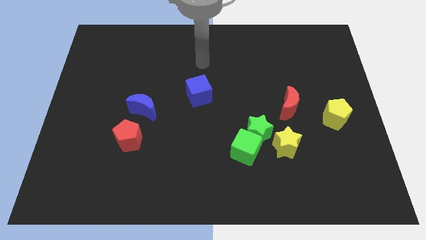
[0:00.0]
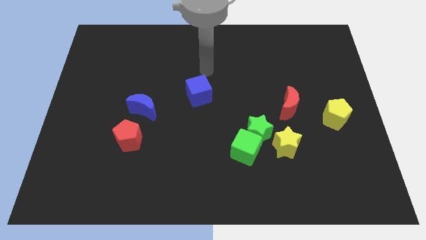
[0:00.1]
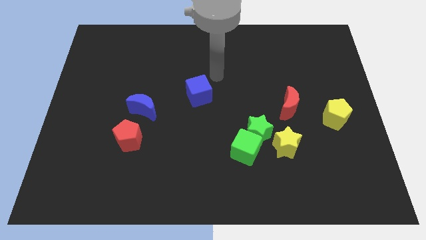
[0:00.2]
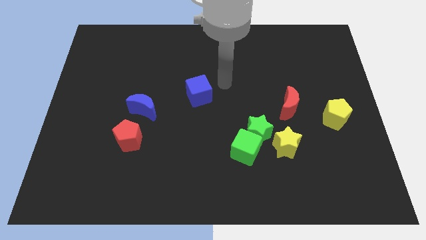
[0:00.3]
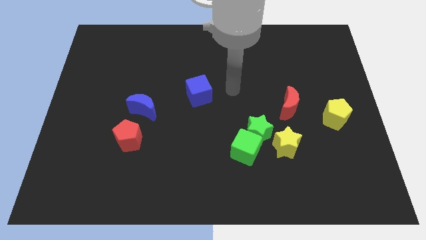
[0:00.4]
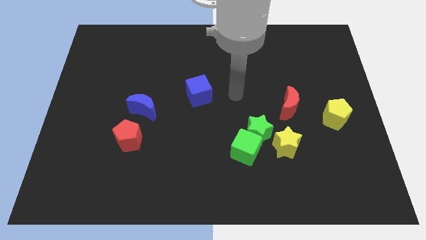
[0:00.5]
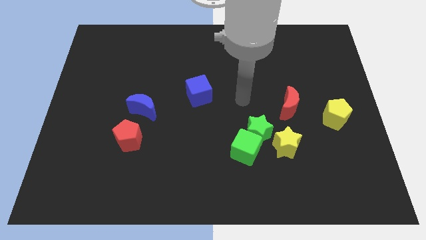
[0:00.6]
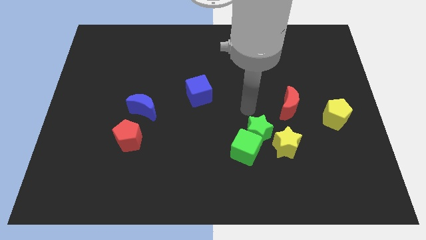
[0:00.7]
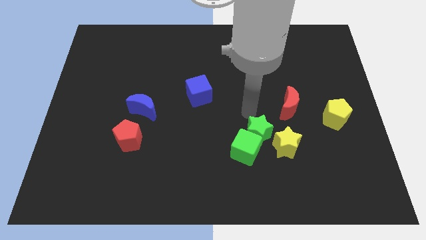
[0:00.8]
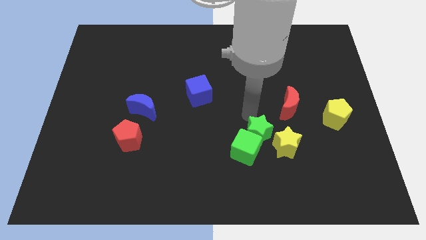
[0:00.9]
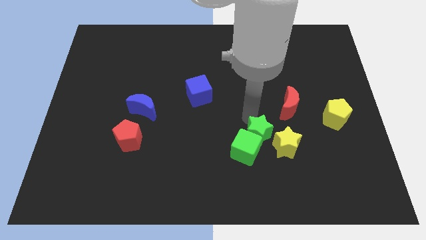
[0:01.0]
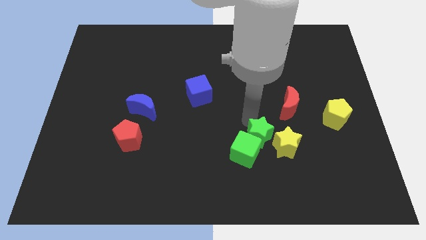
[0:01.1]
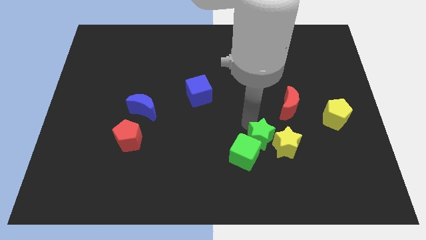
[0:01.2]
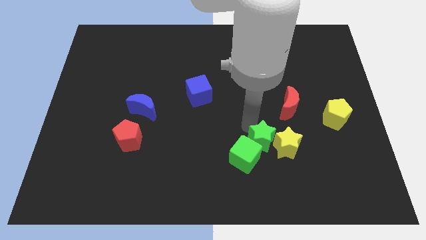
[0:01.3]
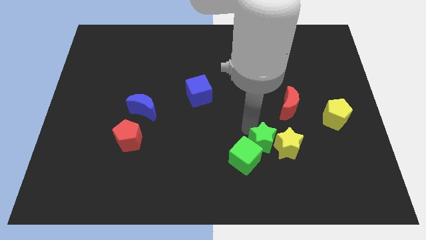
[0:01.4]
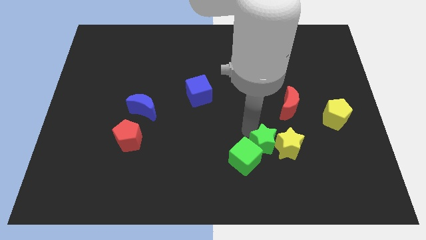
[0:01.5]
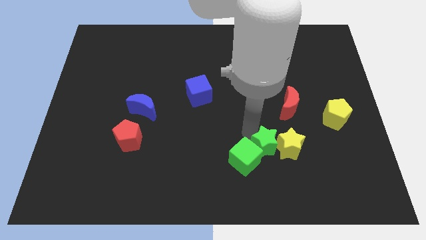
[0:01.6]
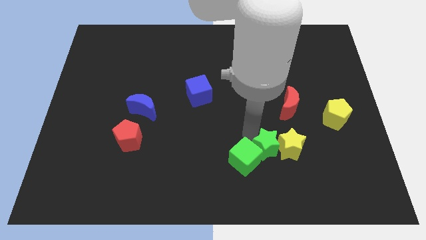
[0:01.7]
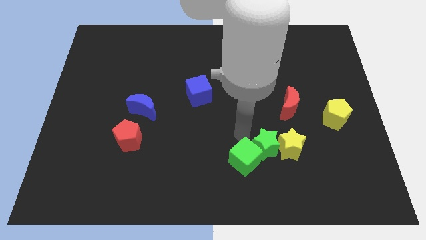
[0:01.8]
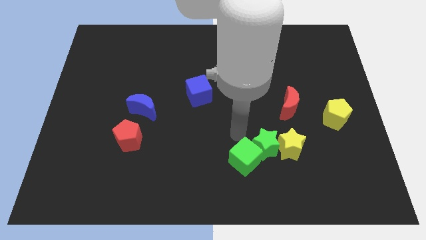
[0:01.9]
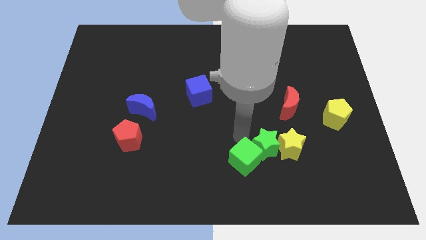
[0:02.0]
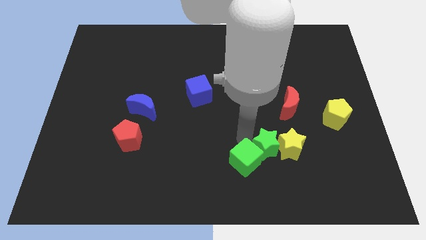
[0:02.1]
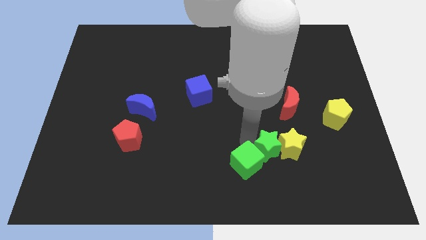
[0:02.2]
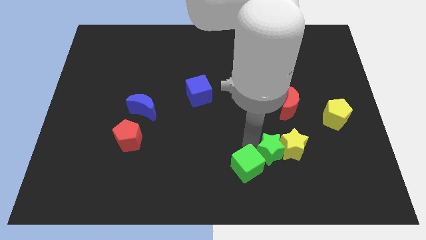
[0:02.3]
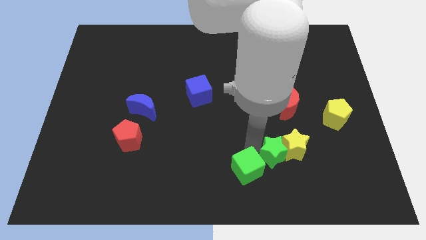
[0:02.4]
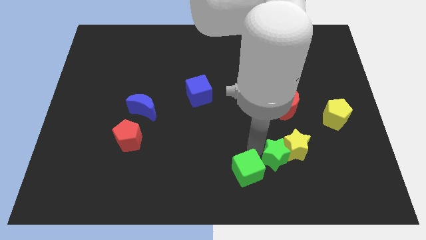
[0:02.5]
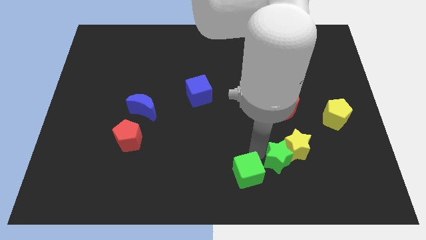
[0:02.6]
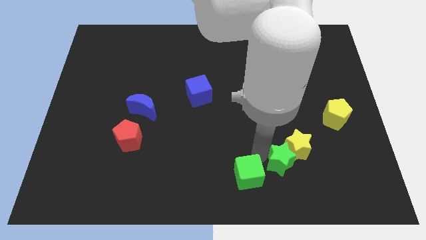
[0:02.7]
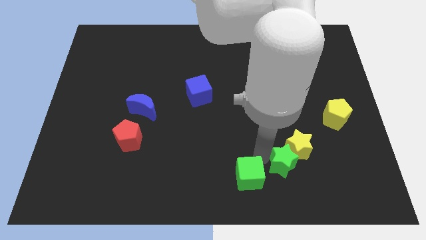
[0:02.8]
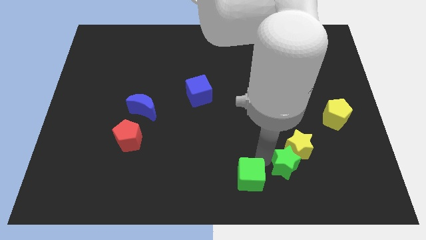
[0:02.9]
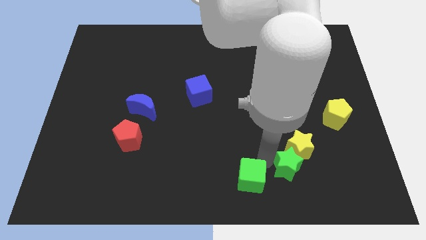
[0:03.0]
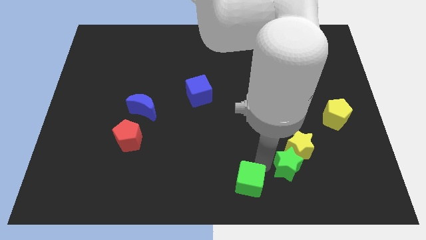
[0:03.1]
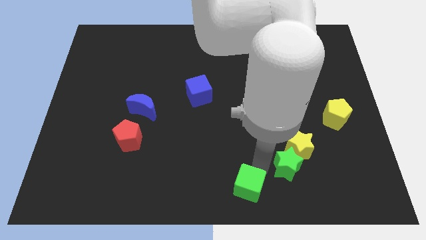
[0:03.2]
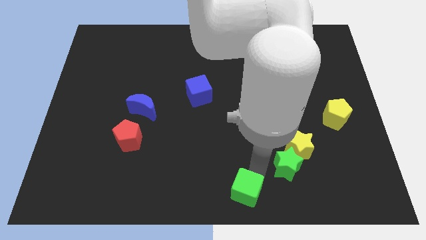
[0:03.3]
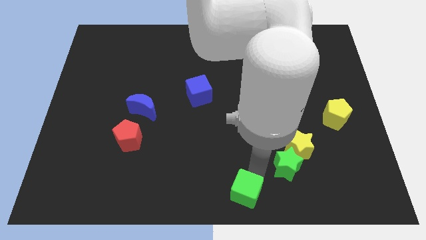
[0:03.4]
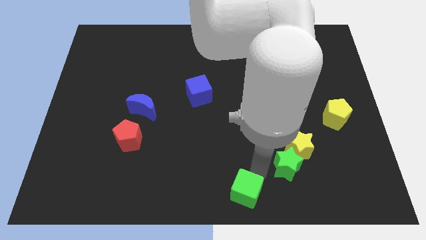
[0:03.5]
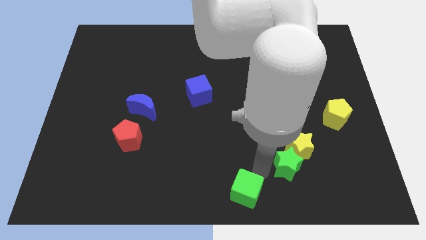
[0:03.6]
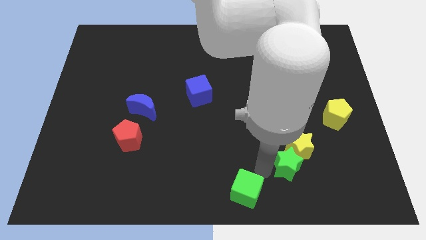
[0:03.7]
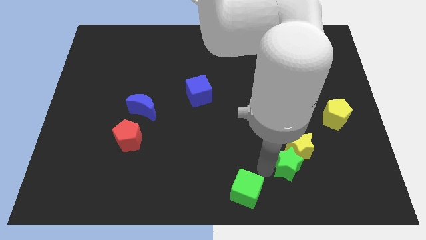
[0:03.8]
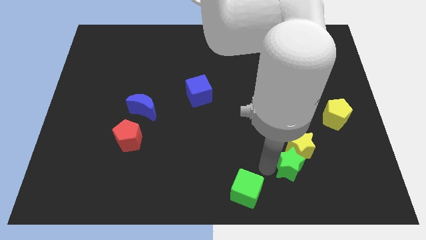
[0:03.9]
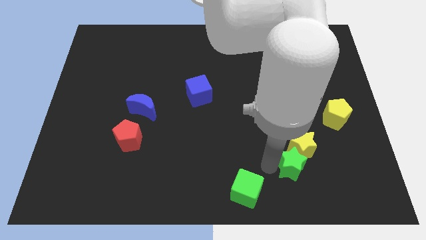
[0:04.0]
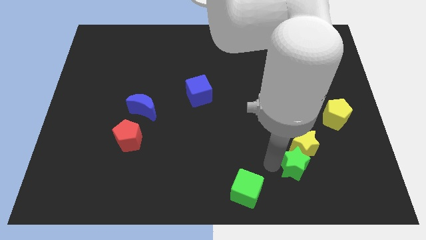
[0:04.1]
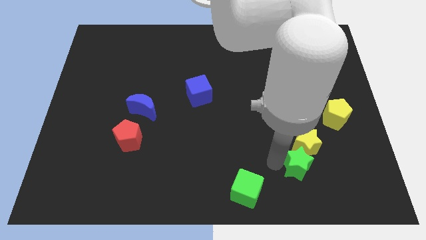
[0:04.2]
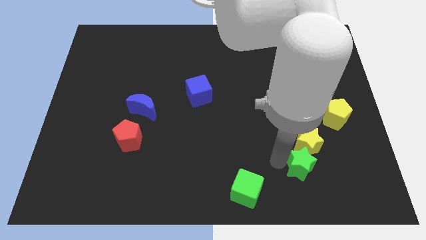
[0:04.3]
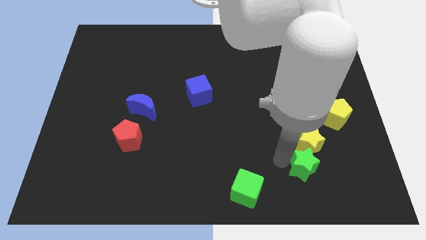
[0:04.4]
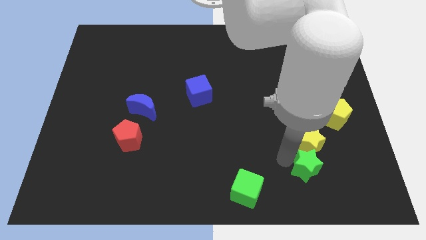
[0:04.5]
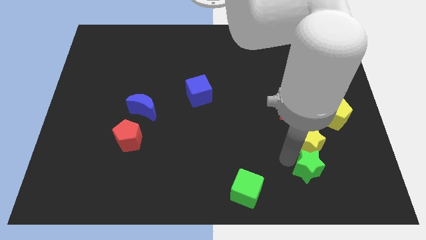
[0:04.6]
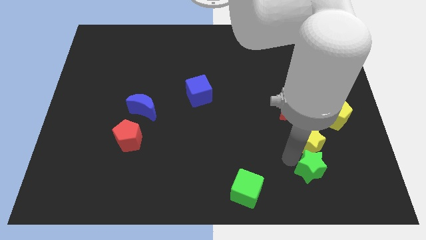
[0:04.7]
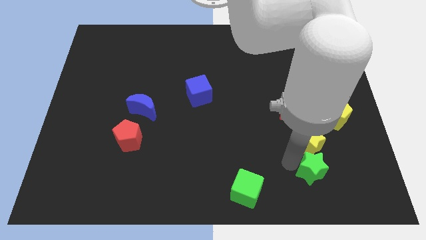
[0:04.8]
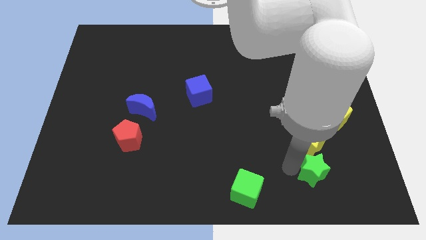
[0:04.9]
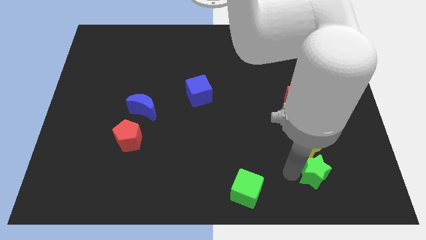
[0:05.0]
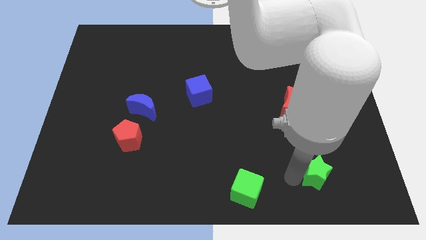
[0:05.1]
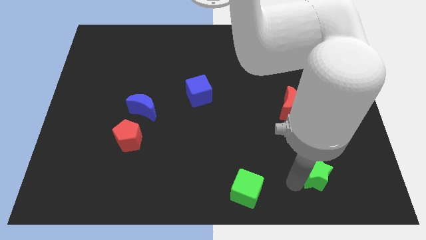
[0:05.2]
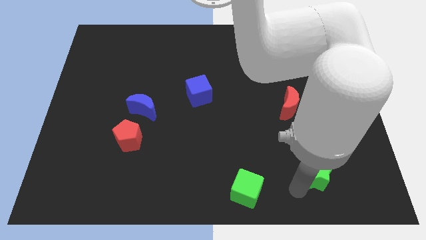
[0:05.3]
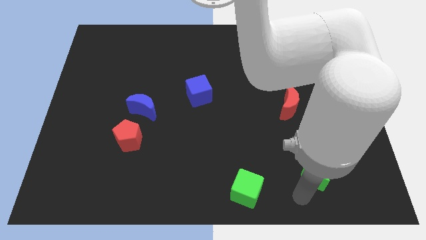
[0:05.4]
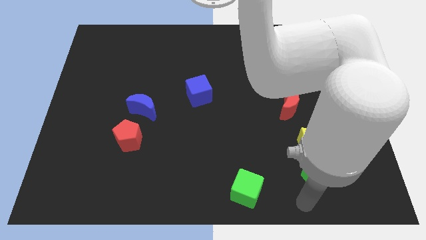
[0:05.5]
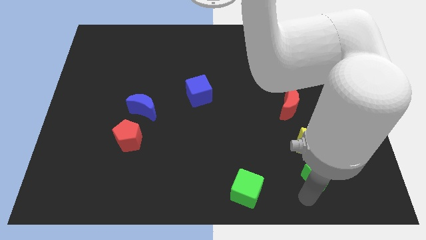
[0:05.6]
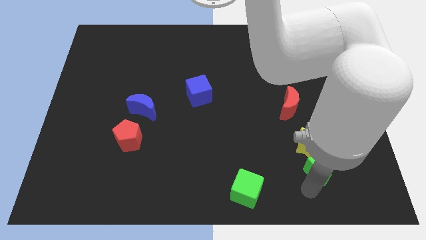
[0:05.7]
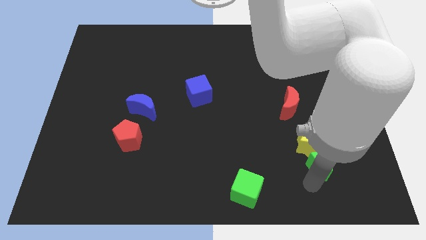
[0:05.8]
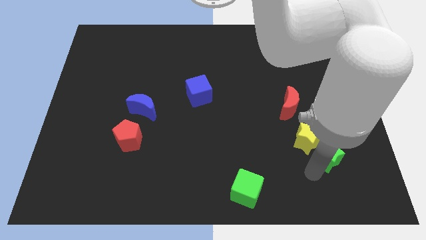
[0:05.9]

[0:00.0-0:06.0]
put the green star to the right side of the yellow star
